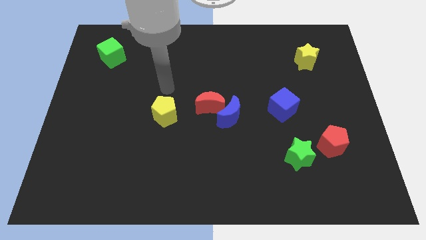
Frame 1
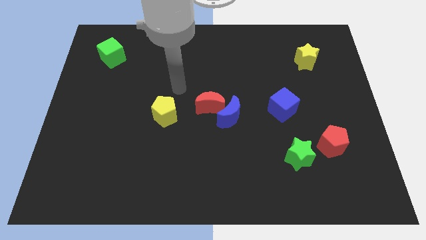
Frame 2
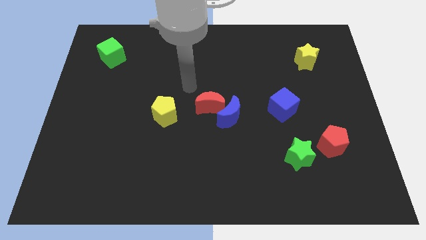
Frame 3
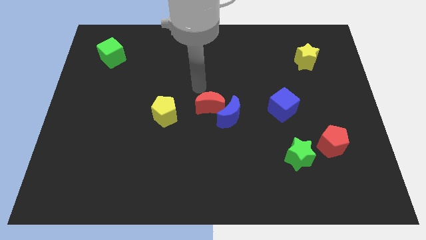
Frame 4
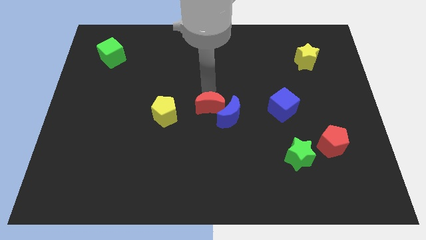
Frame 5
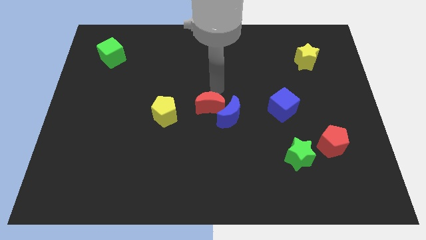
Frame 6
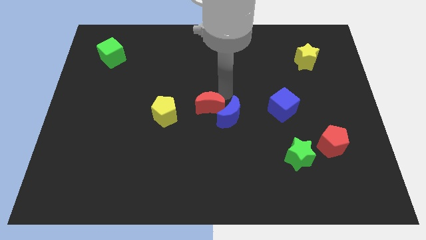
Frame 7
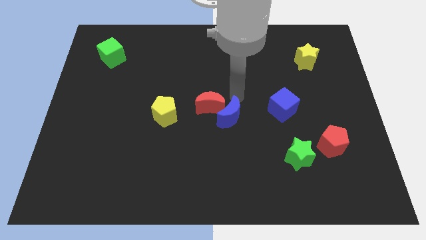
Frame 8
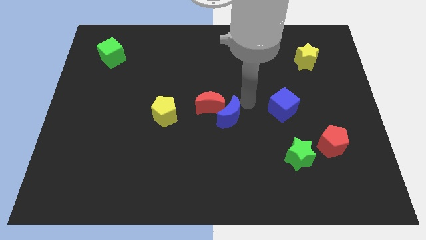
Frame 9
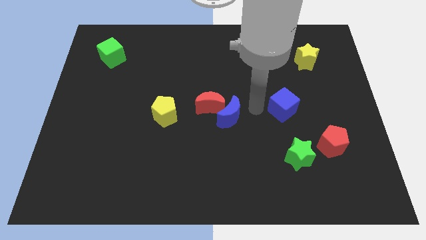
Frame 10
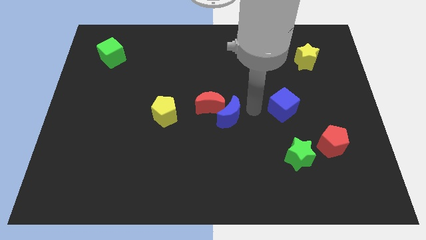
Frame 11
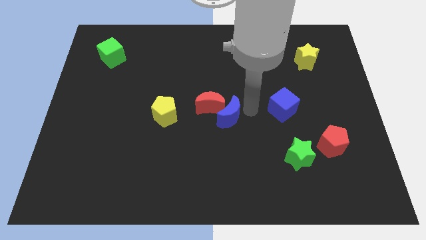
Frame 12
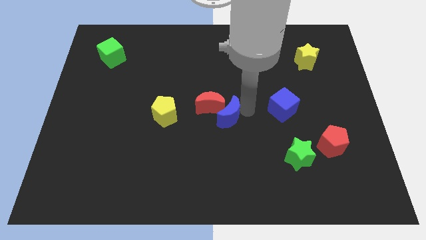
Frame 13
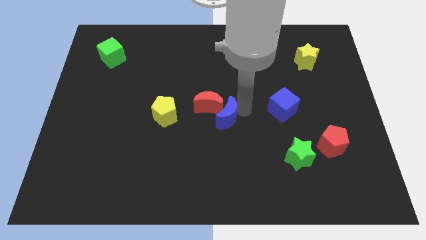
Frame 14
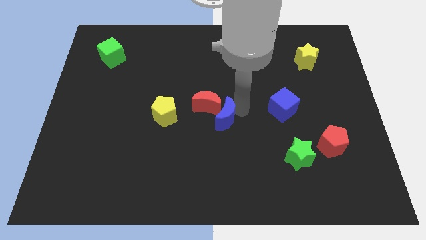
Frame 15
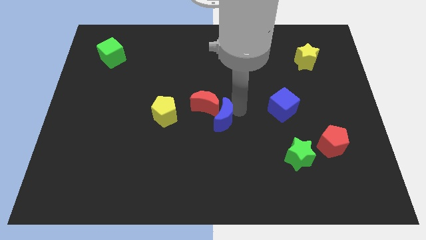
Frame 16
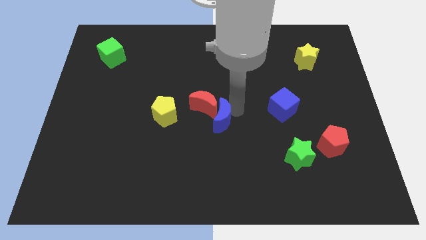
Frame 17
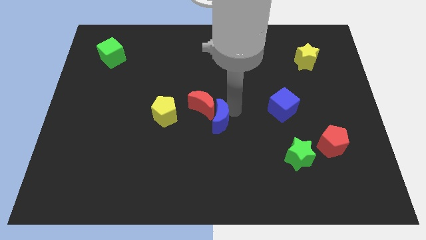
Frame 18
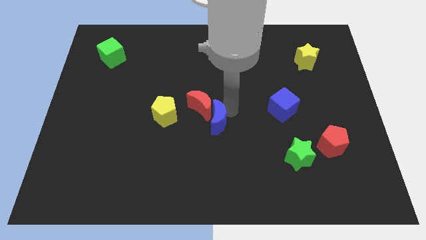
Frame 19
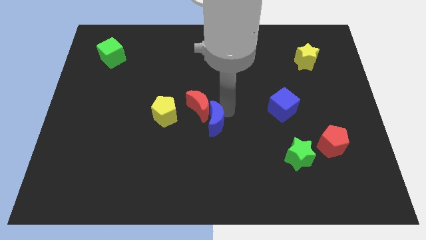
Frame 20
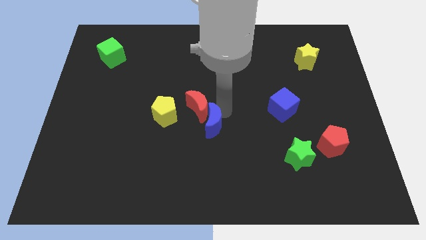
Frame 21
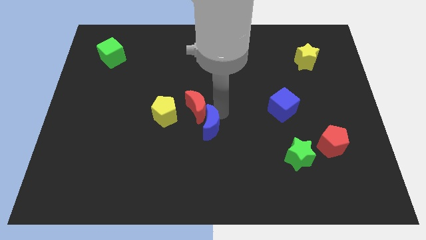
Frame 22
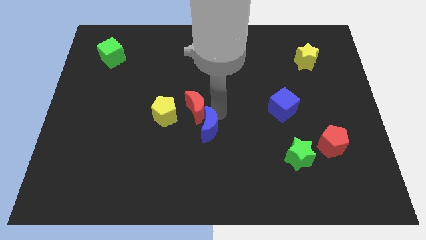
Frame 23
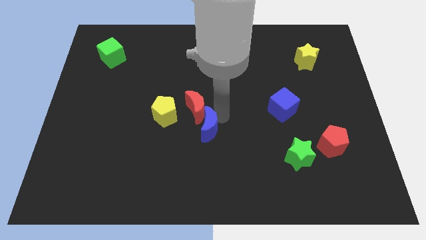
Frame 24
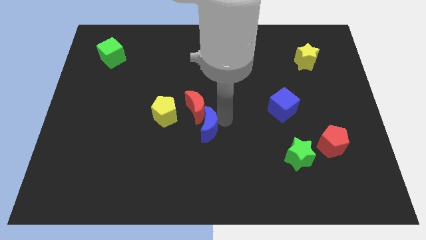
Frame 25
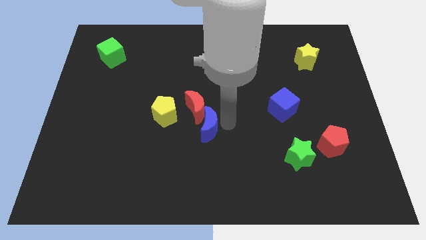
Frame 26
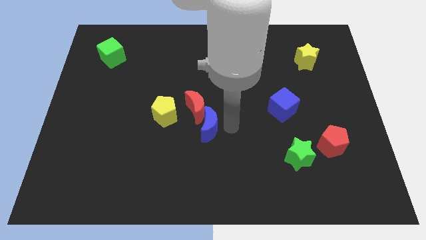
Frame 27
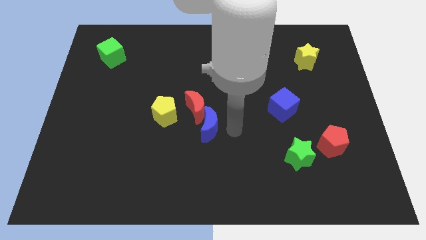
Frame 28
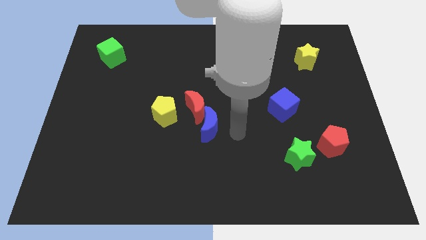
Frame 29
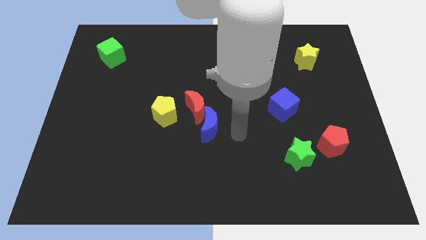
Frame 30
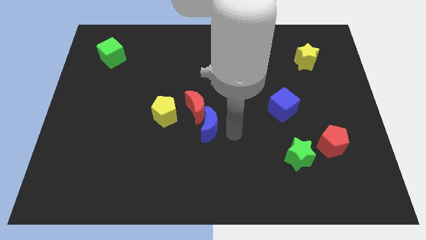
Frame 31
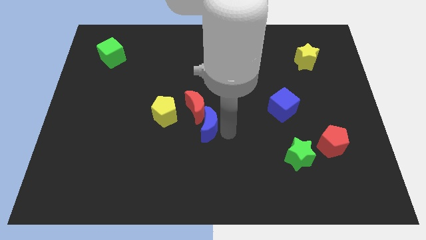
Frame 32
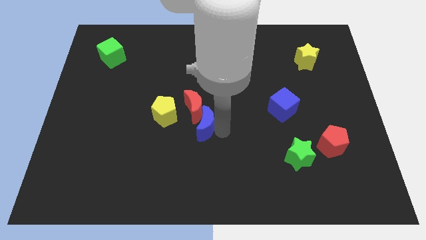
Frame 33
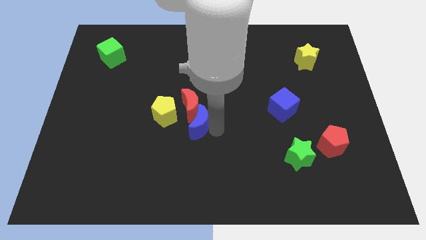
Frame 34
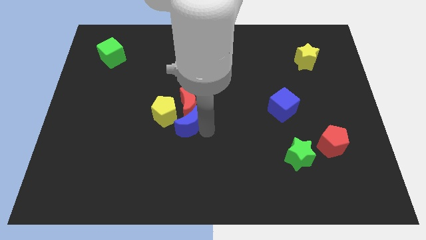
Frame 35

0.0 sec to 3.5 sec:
slightly slide the blue moon to the left

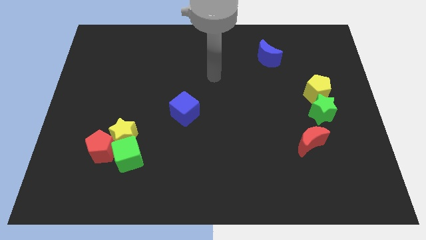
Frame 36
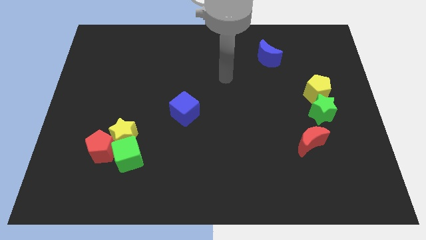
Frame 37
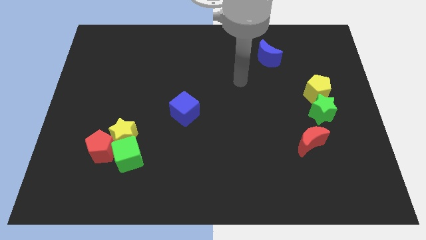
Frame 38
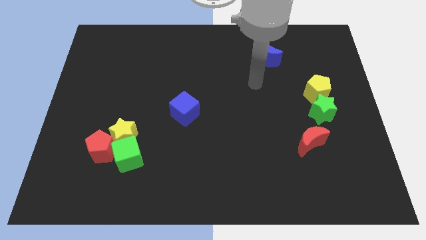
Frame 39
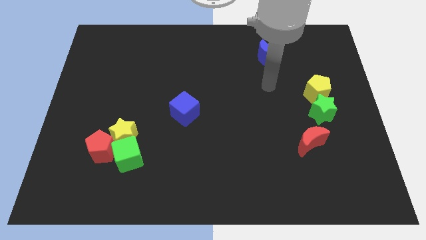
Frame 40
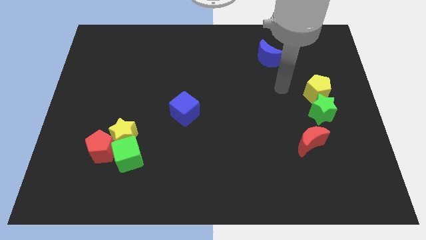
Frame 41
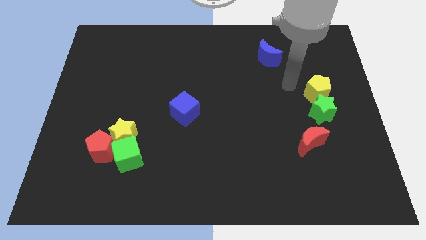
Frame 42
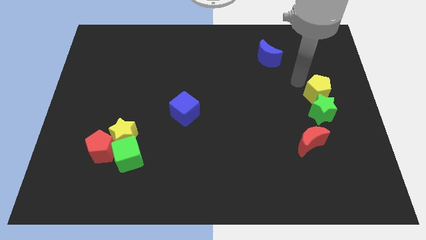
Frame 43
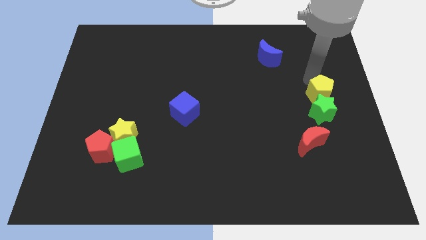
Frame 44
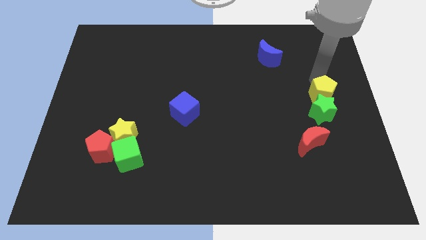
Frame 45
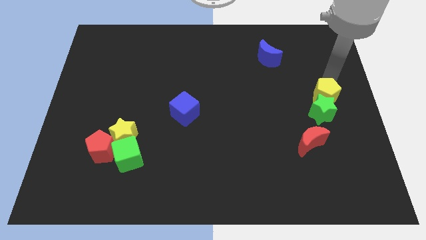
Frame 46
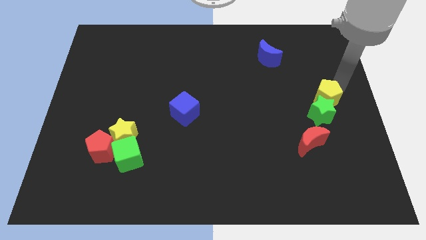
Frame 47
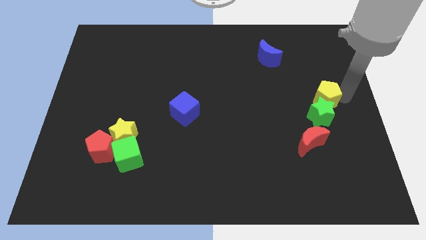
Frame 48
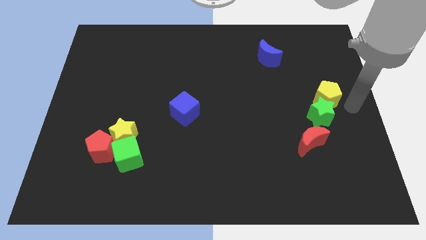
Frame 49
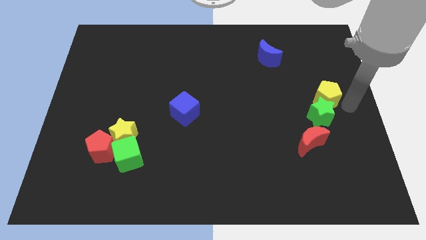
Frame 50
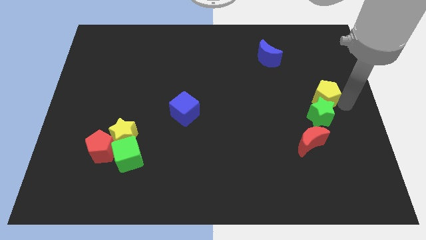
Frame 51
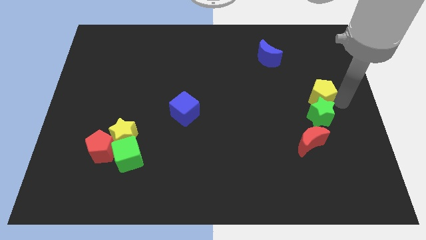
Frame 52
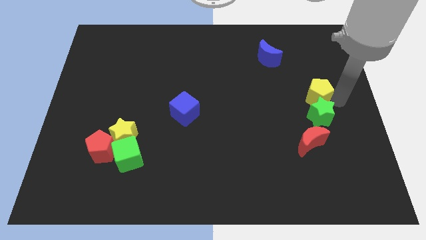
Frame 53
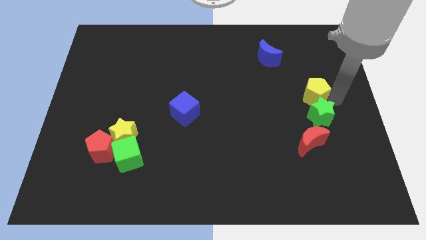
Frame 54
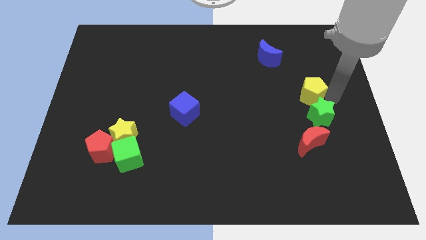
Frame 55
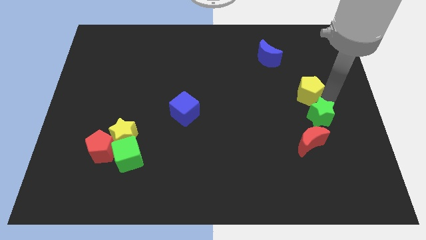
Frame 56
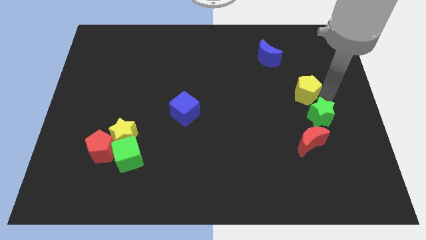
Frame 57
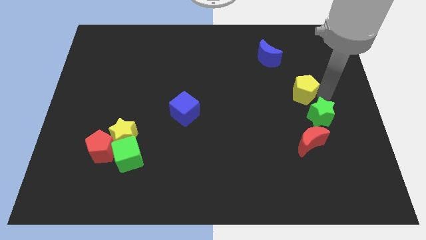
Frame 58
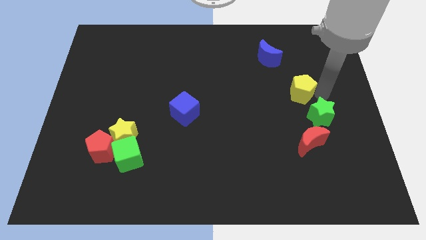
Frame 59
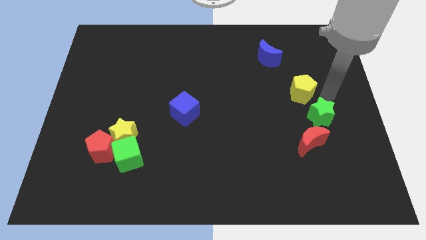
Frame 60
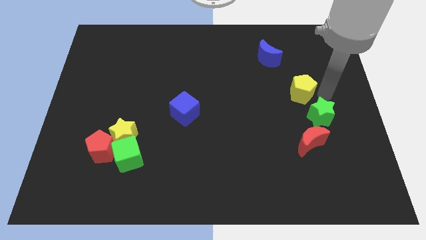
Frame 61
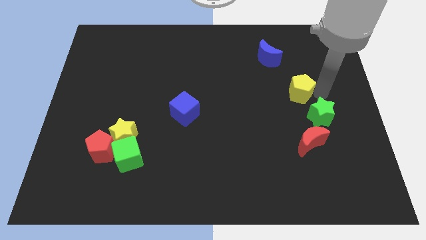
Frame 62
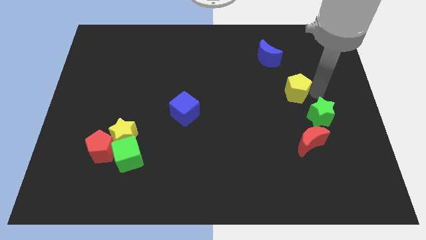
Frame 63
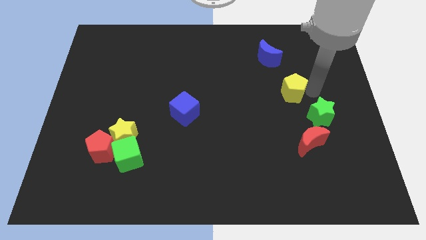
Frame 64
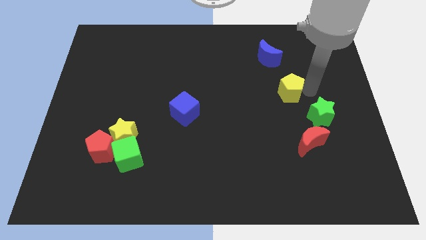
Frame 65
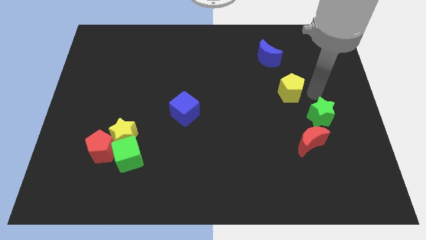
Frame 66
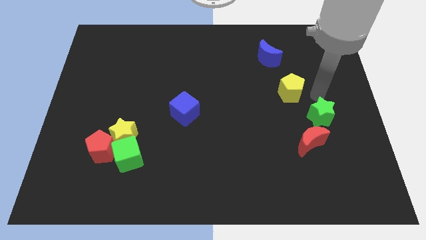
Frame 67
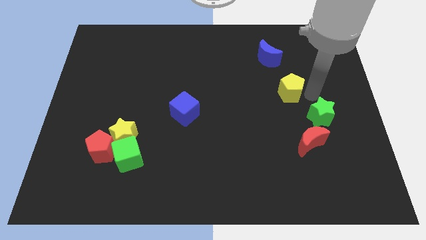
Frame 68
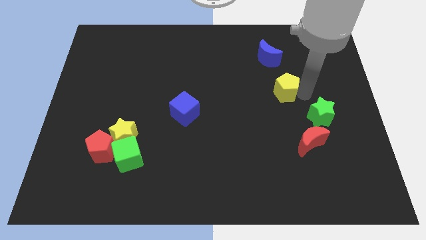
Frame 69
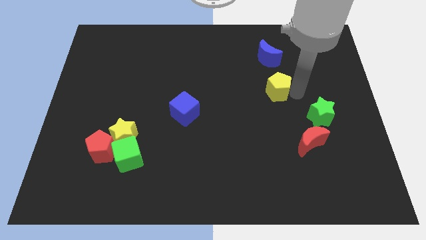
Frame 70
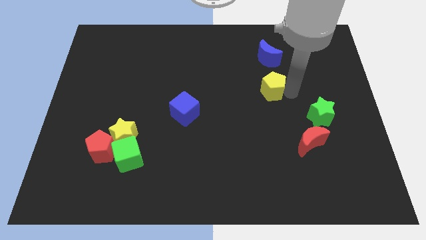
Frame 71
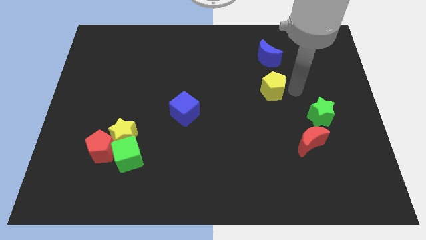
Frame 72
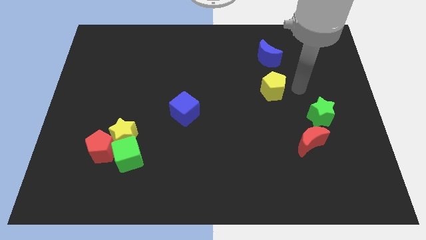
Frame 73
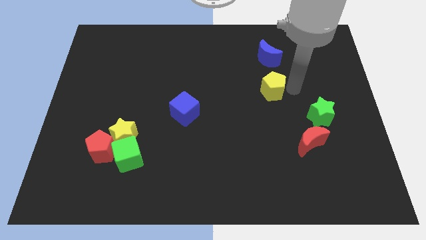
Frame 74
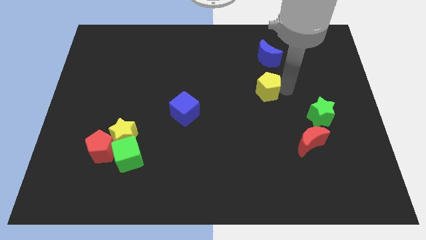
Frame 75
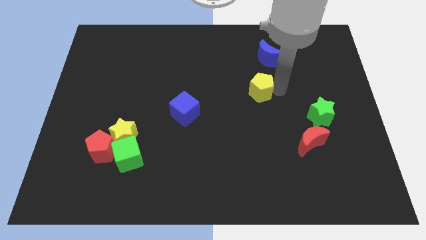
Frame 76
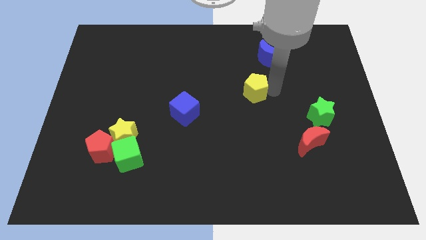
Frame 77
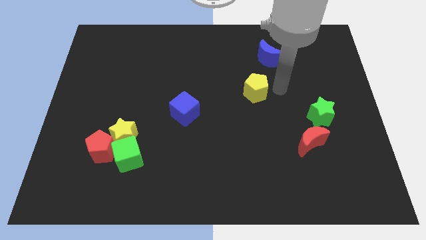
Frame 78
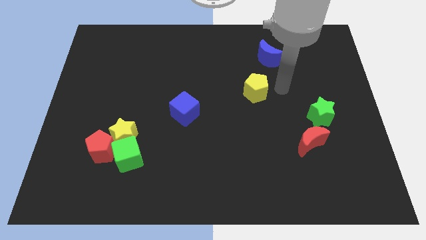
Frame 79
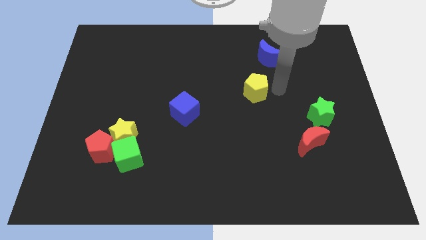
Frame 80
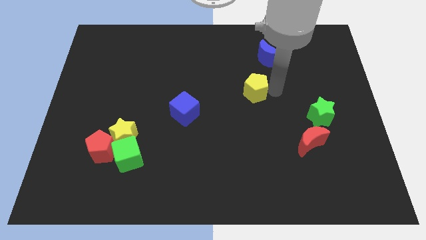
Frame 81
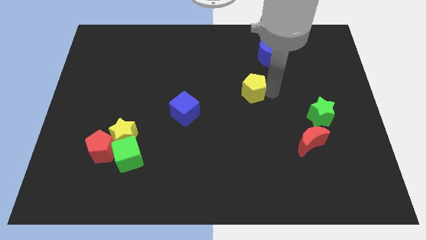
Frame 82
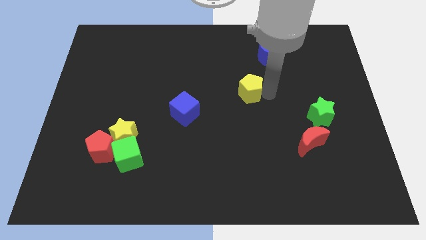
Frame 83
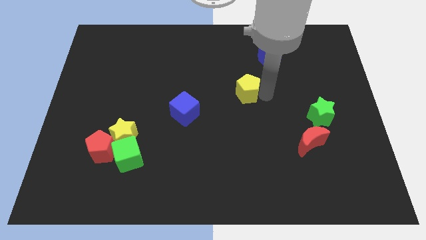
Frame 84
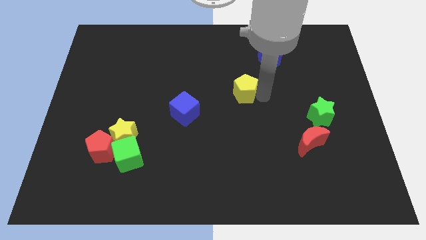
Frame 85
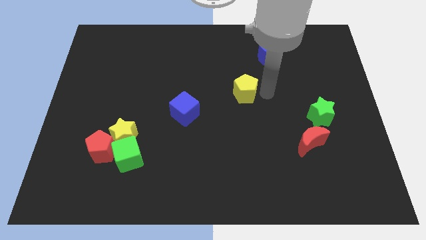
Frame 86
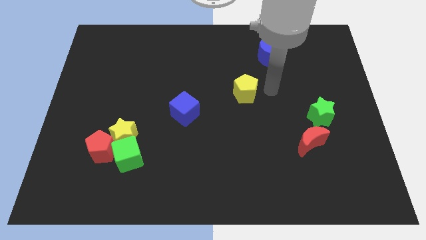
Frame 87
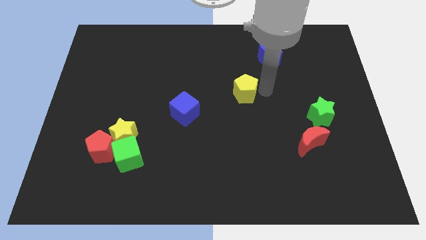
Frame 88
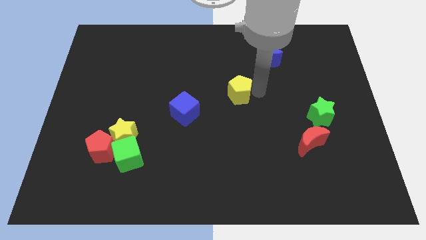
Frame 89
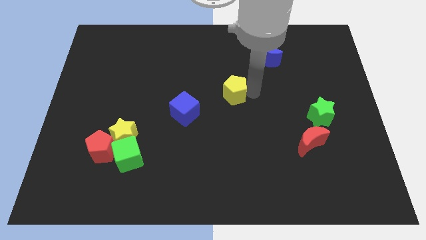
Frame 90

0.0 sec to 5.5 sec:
slide the yellow pentagon left
